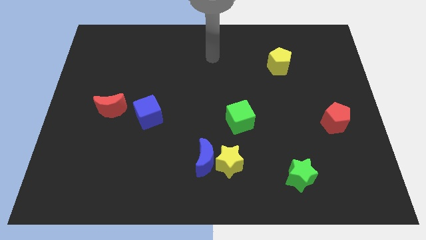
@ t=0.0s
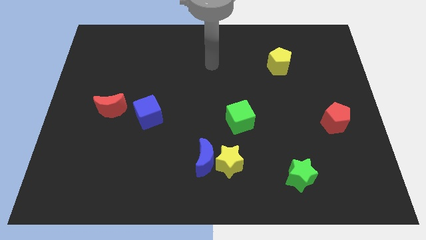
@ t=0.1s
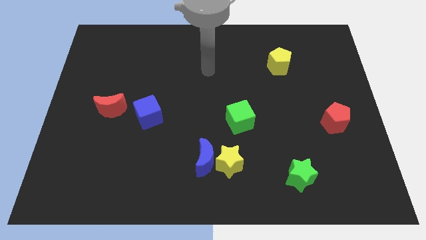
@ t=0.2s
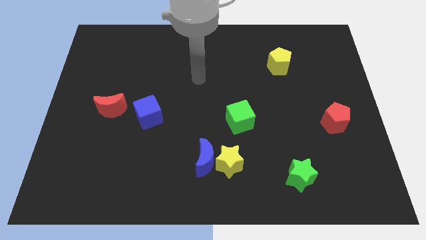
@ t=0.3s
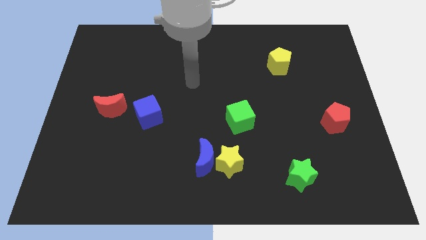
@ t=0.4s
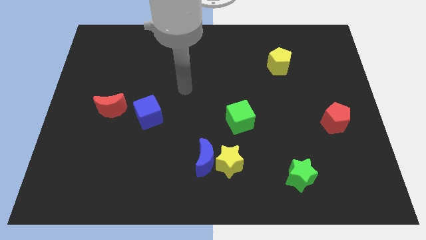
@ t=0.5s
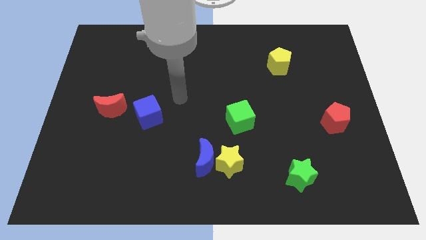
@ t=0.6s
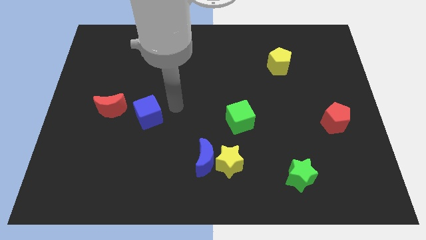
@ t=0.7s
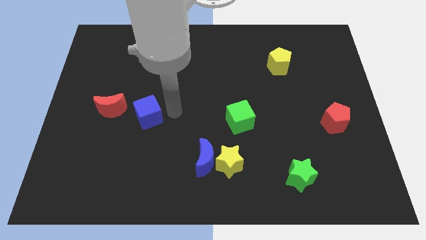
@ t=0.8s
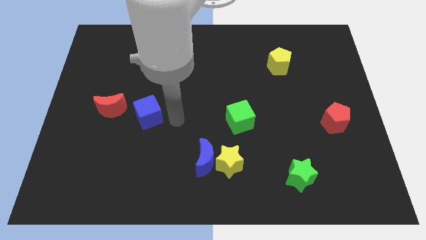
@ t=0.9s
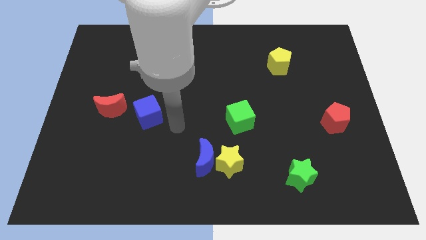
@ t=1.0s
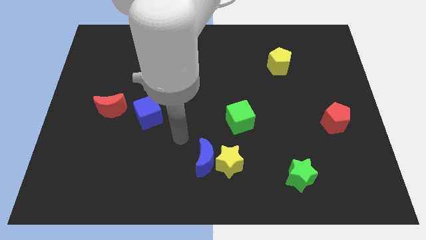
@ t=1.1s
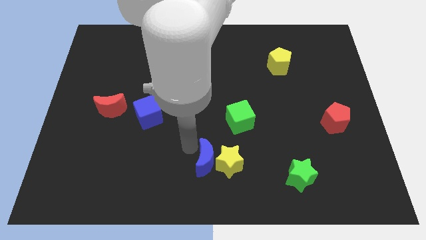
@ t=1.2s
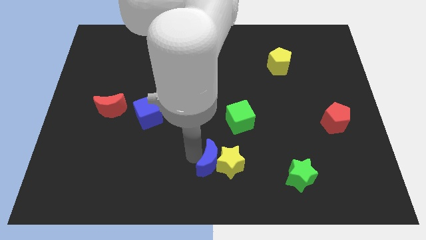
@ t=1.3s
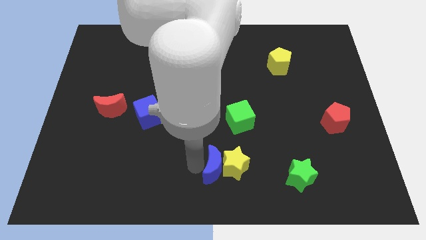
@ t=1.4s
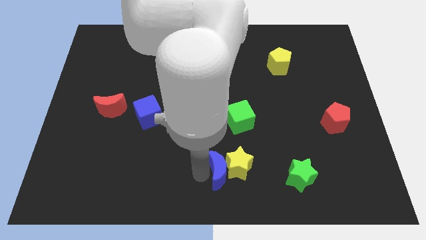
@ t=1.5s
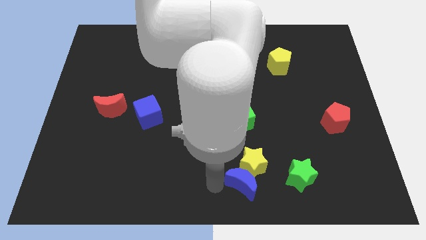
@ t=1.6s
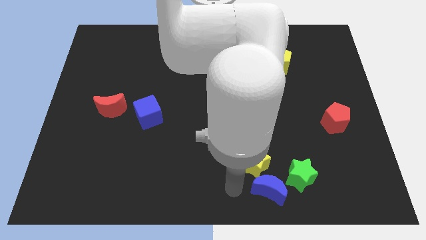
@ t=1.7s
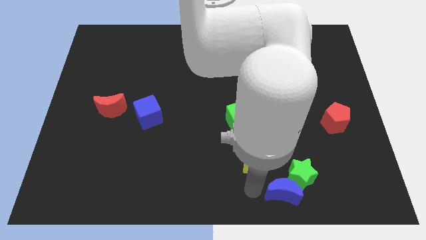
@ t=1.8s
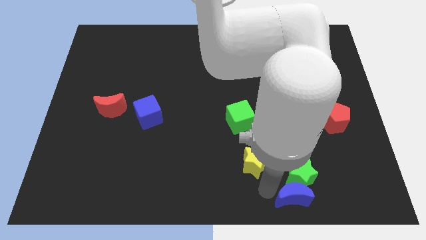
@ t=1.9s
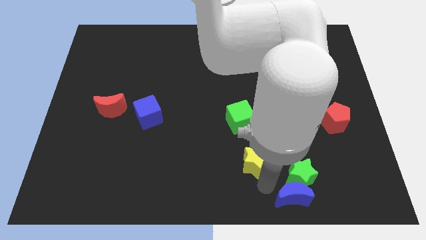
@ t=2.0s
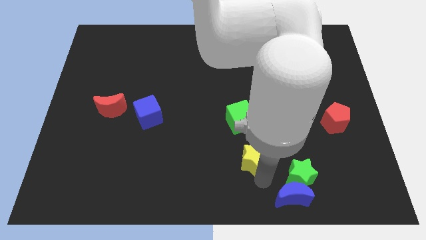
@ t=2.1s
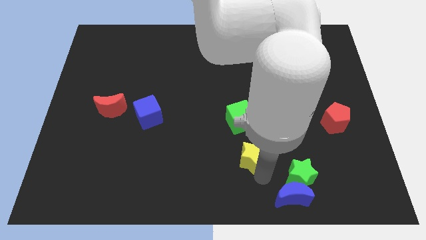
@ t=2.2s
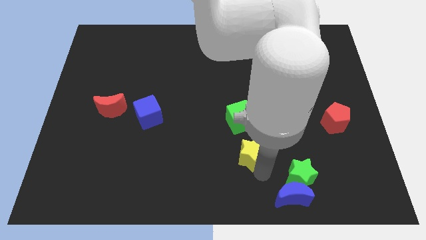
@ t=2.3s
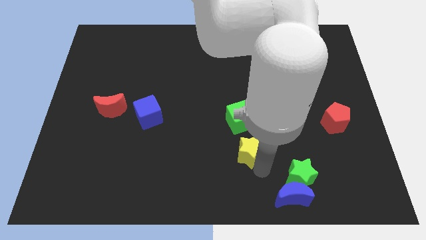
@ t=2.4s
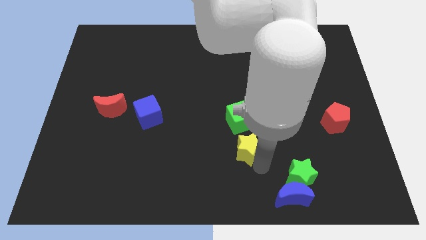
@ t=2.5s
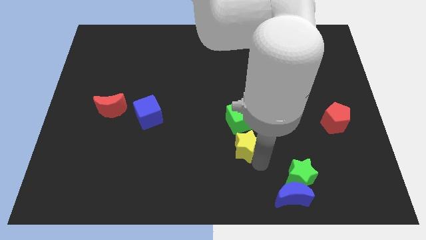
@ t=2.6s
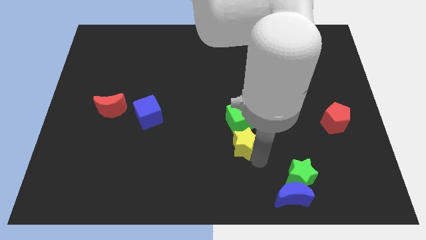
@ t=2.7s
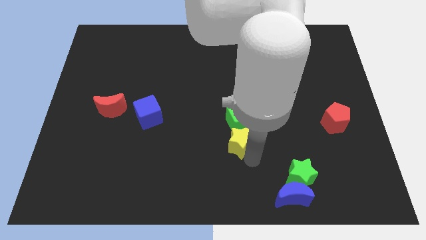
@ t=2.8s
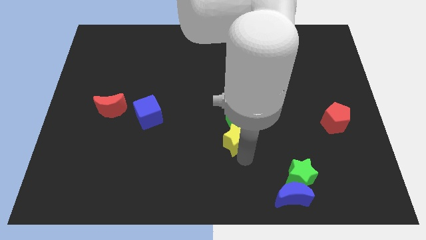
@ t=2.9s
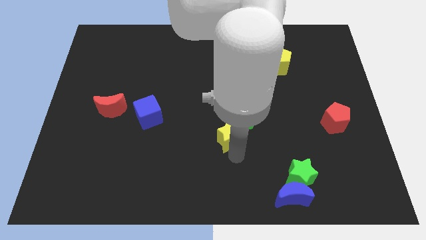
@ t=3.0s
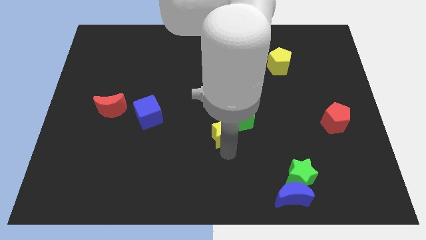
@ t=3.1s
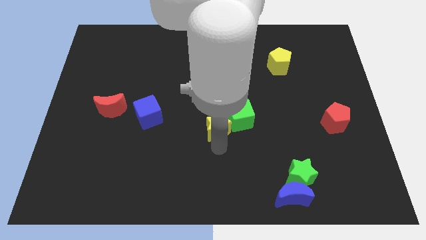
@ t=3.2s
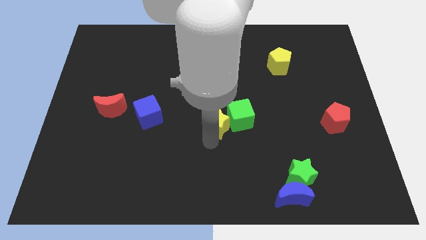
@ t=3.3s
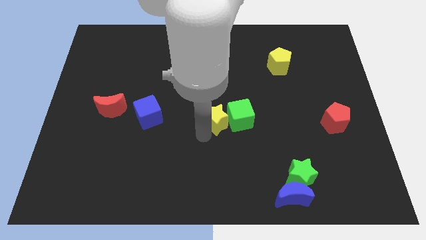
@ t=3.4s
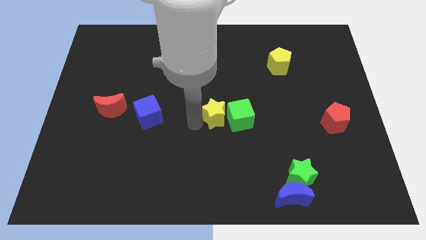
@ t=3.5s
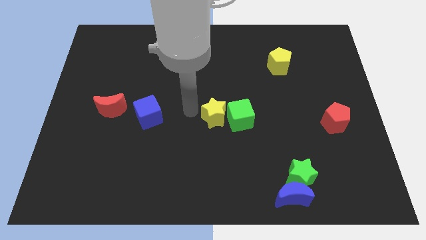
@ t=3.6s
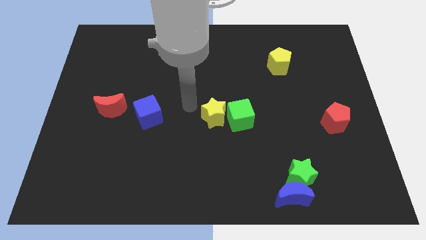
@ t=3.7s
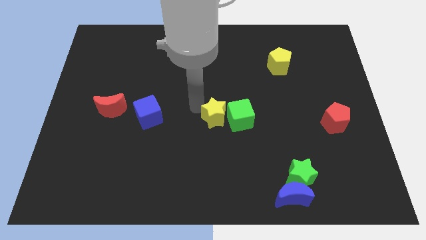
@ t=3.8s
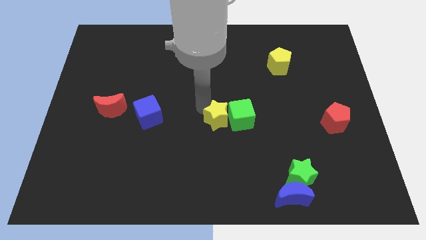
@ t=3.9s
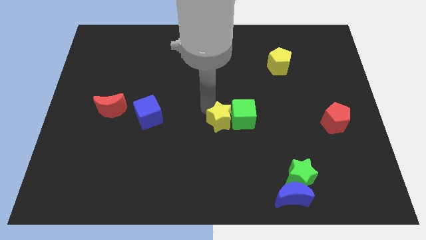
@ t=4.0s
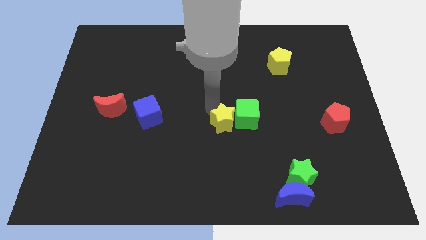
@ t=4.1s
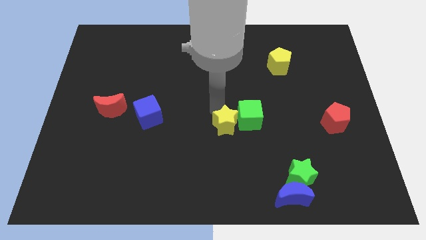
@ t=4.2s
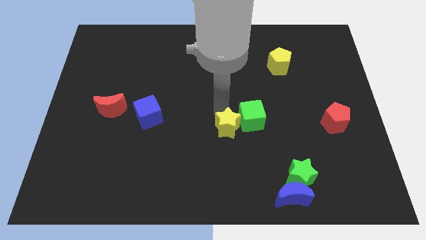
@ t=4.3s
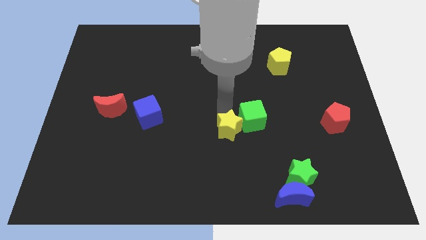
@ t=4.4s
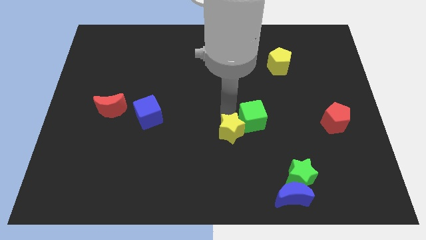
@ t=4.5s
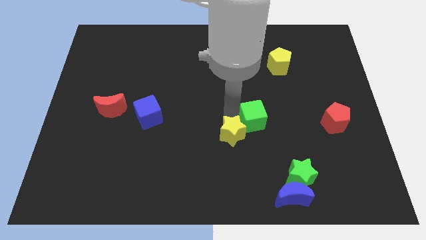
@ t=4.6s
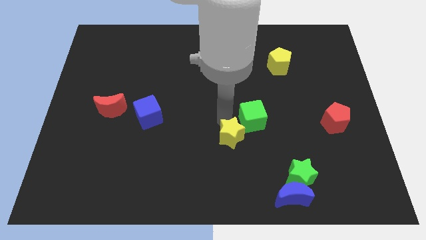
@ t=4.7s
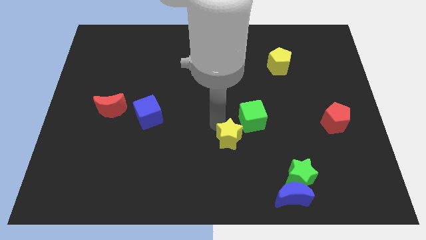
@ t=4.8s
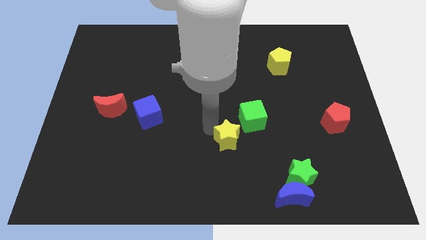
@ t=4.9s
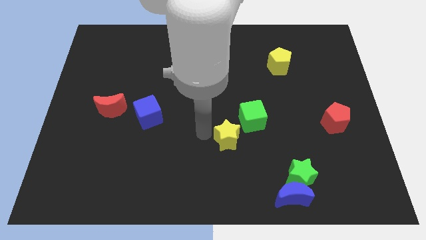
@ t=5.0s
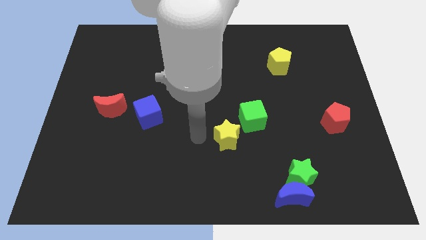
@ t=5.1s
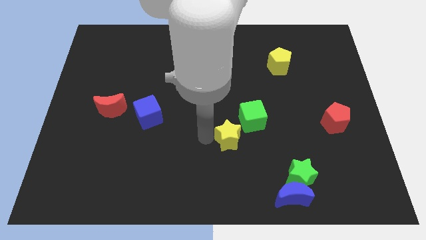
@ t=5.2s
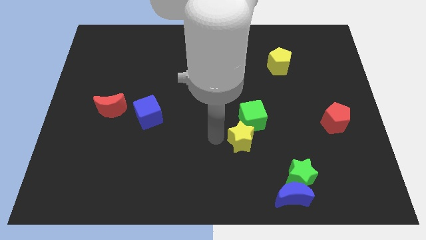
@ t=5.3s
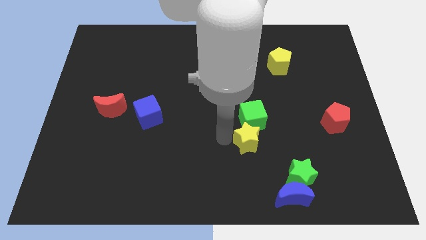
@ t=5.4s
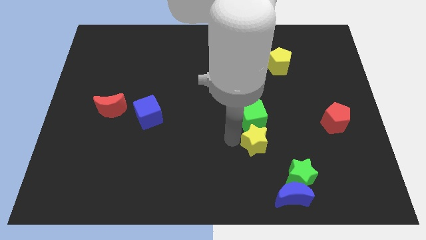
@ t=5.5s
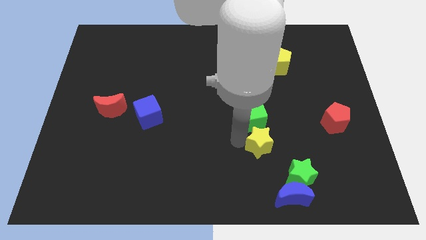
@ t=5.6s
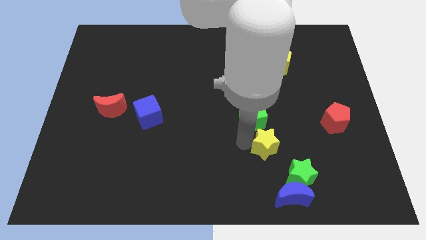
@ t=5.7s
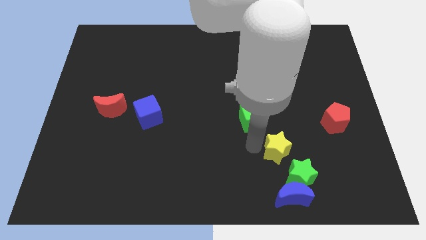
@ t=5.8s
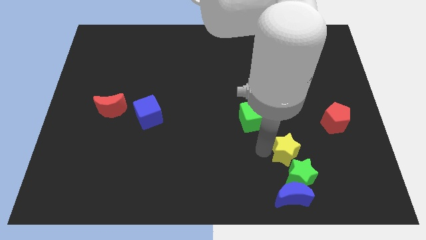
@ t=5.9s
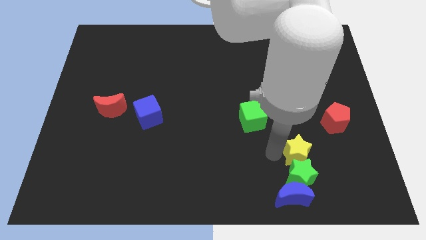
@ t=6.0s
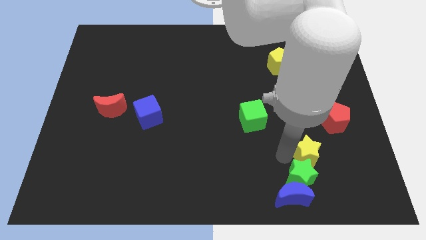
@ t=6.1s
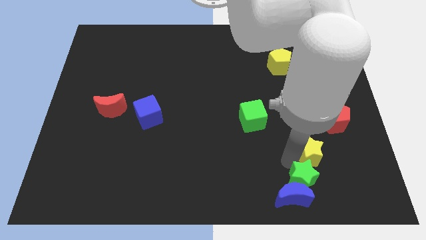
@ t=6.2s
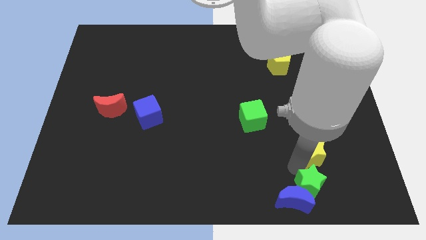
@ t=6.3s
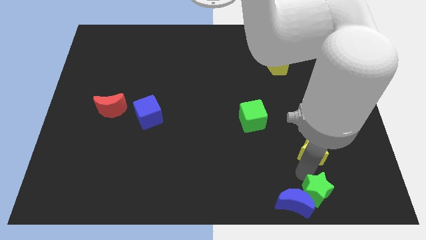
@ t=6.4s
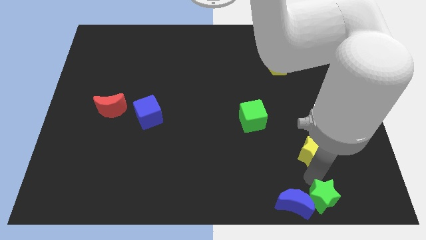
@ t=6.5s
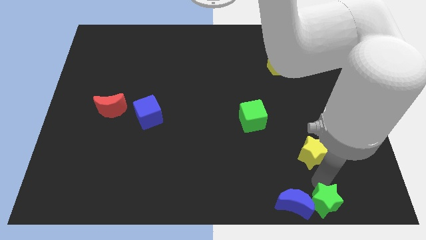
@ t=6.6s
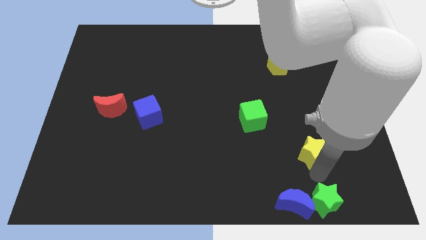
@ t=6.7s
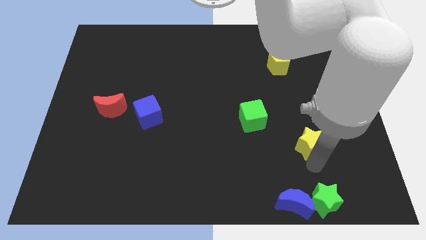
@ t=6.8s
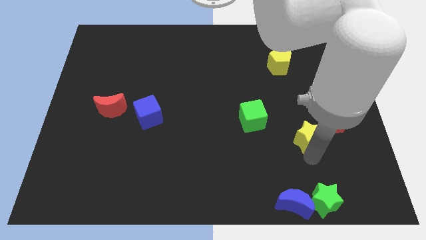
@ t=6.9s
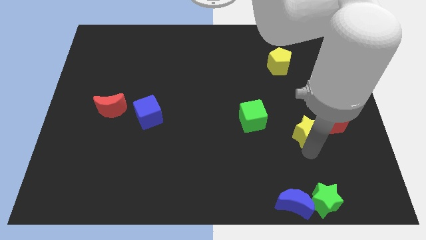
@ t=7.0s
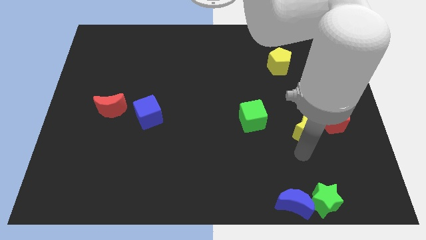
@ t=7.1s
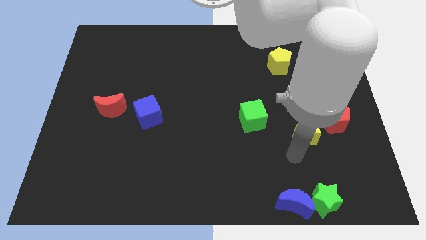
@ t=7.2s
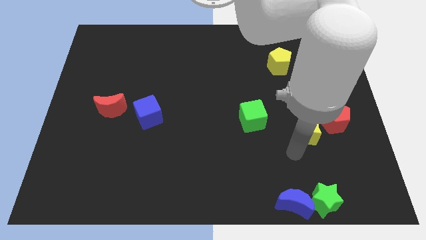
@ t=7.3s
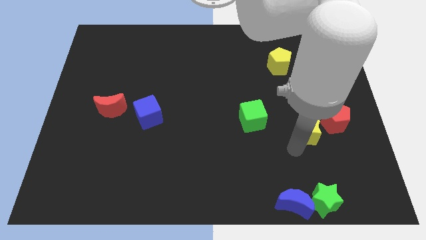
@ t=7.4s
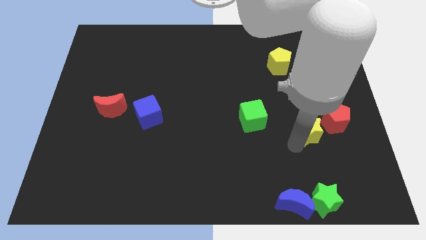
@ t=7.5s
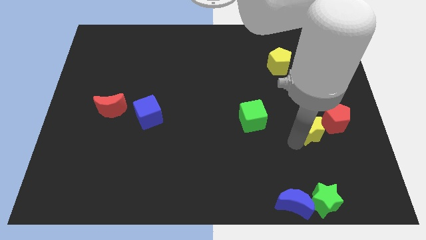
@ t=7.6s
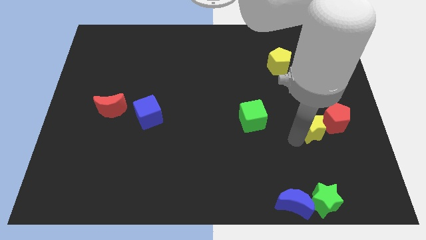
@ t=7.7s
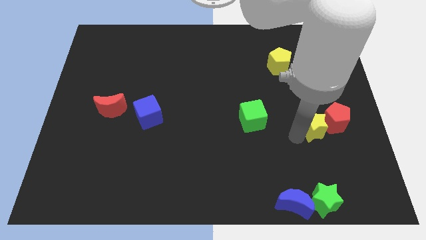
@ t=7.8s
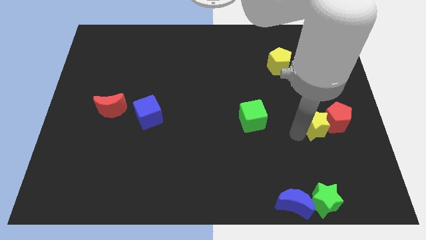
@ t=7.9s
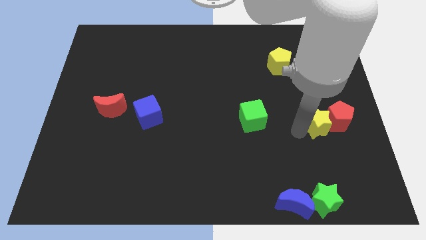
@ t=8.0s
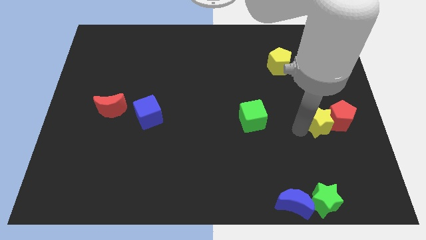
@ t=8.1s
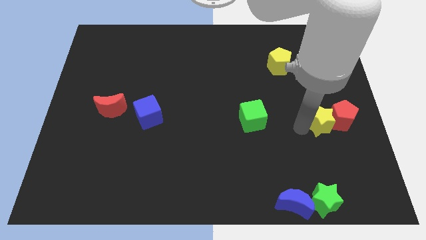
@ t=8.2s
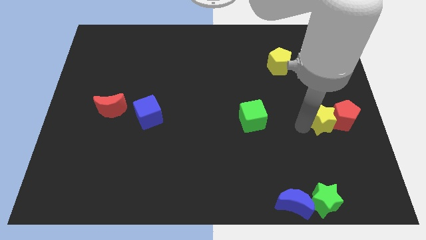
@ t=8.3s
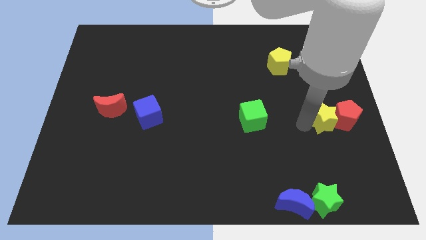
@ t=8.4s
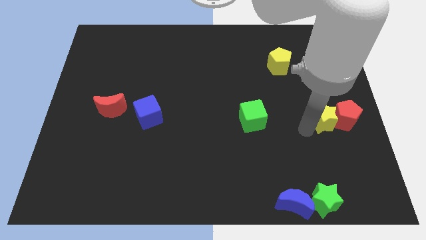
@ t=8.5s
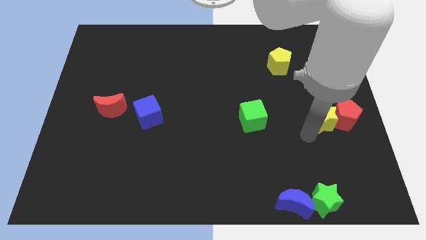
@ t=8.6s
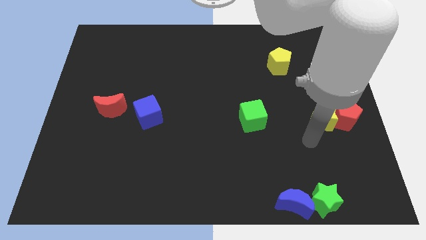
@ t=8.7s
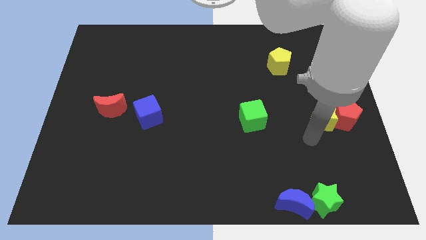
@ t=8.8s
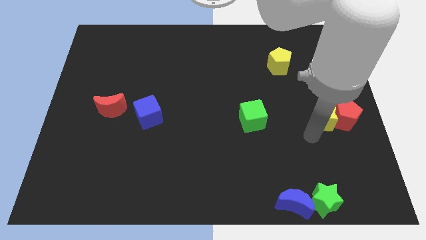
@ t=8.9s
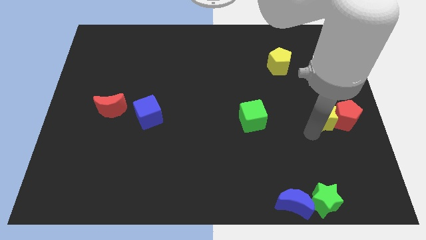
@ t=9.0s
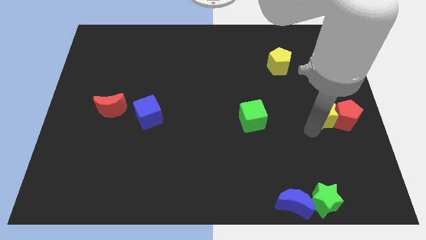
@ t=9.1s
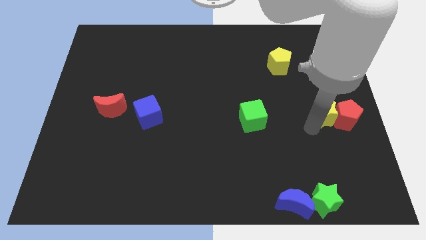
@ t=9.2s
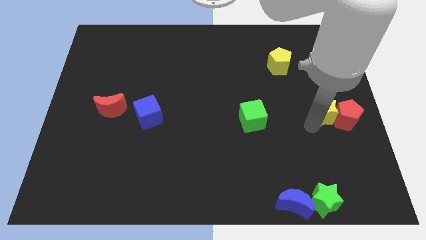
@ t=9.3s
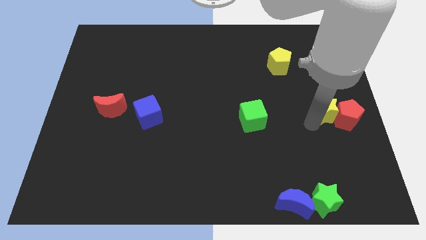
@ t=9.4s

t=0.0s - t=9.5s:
move the yellow star to the center right
